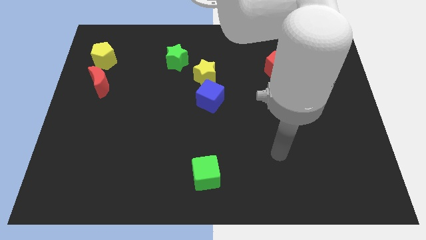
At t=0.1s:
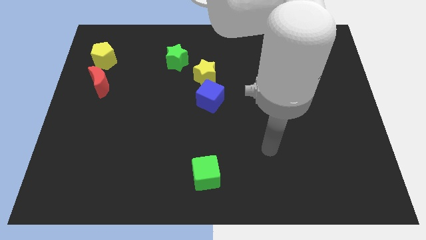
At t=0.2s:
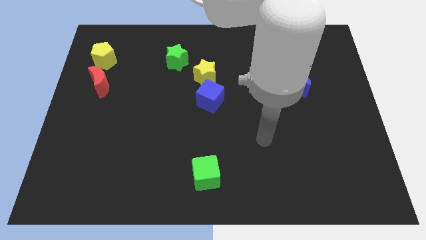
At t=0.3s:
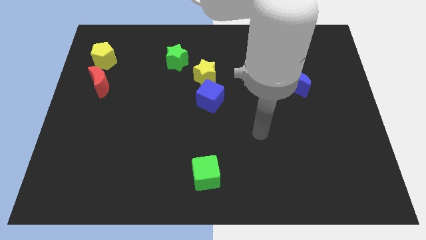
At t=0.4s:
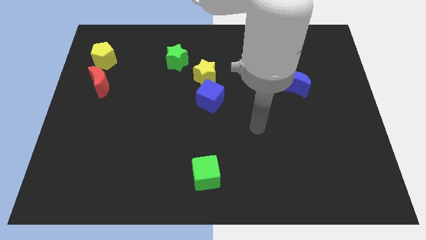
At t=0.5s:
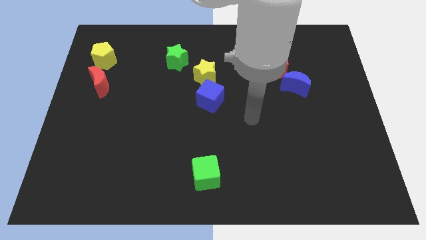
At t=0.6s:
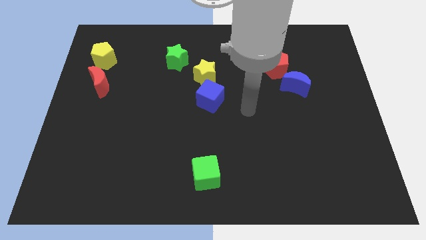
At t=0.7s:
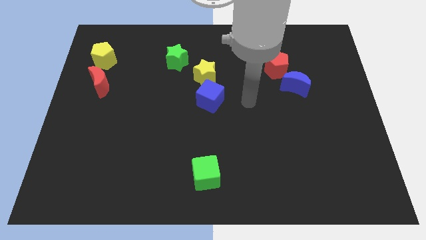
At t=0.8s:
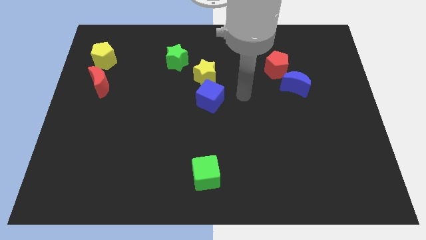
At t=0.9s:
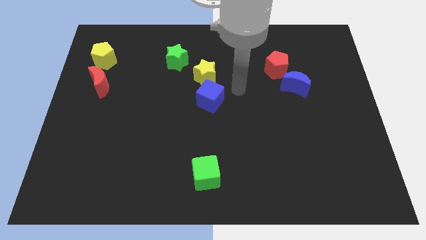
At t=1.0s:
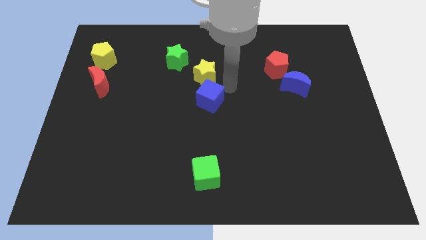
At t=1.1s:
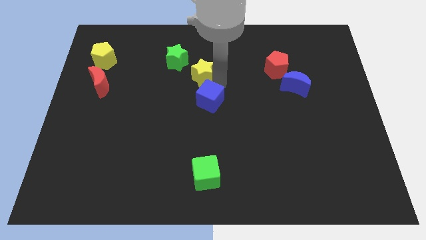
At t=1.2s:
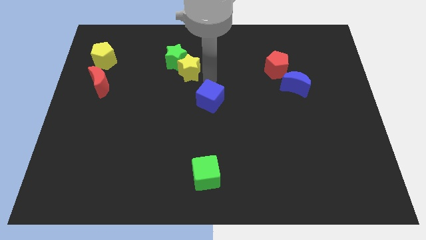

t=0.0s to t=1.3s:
move the blue cube away from the yellow star

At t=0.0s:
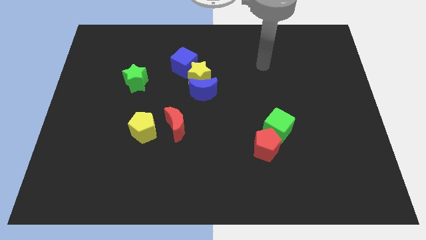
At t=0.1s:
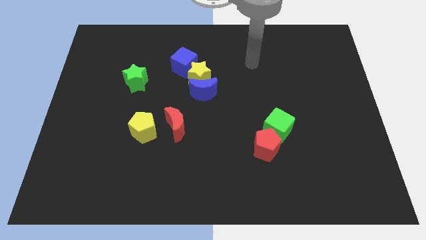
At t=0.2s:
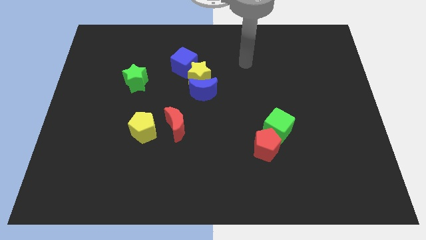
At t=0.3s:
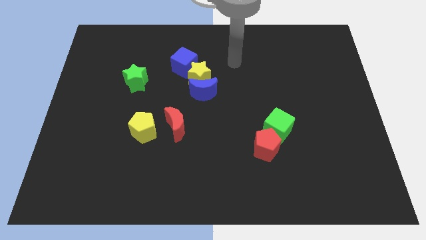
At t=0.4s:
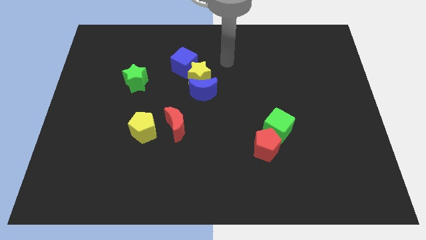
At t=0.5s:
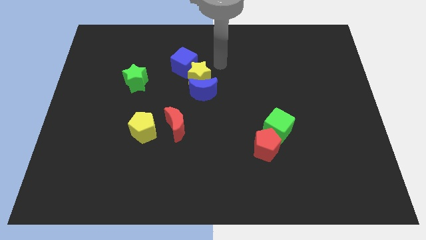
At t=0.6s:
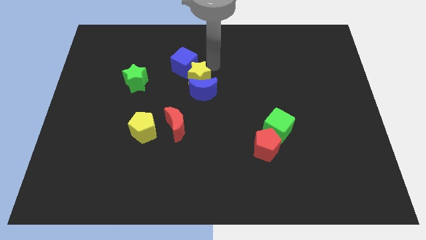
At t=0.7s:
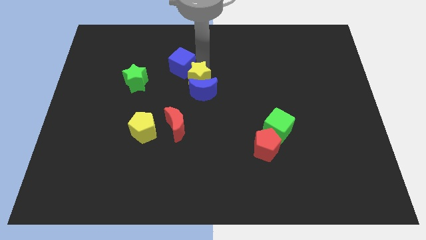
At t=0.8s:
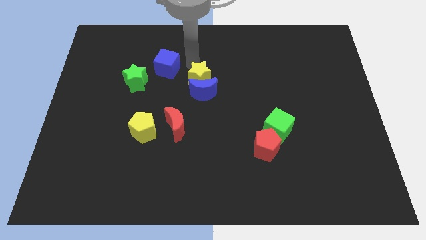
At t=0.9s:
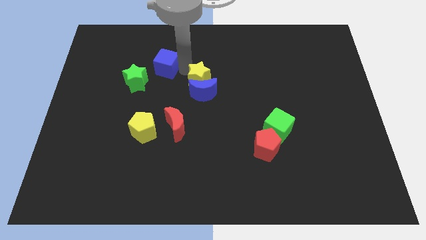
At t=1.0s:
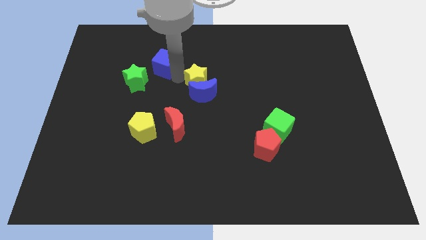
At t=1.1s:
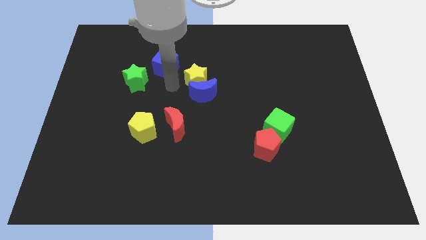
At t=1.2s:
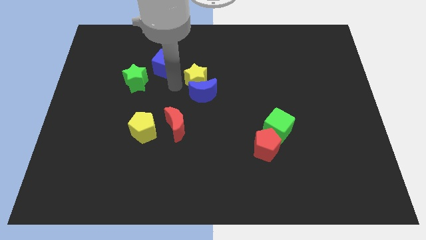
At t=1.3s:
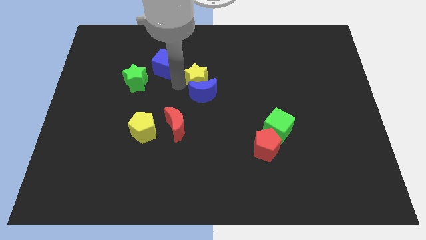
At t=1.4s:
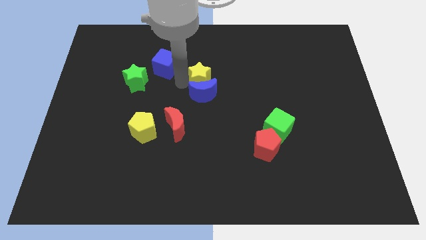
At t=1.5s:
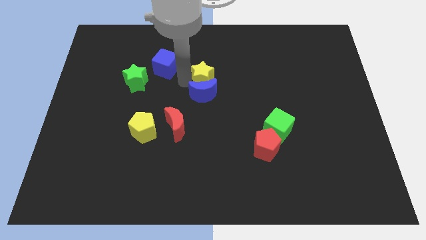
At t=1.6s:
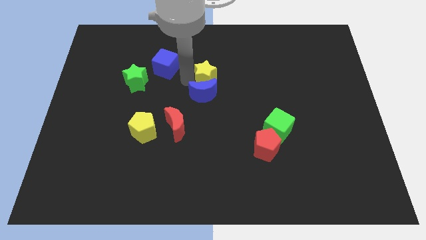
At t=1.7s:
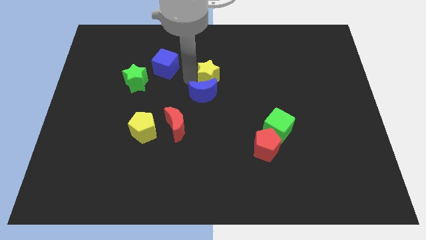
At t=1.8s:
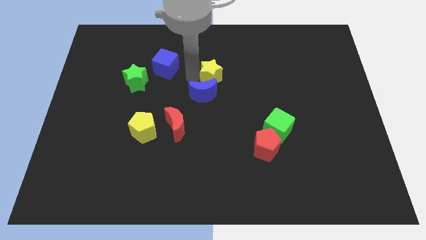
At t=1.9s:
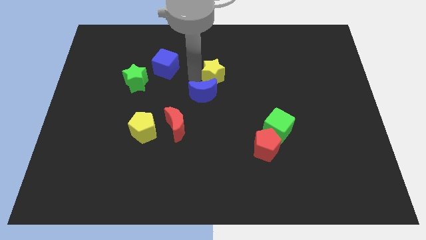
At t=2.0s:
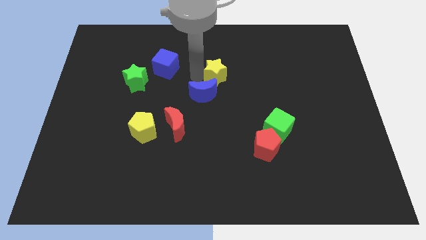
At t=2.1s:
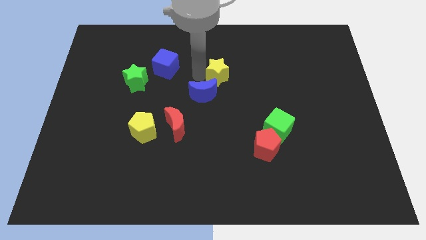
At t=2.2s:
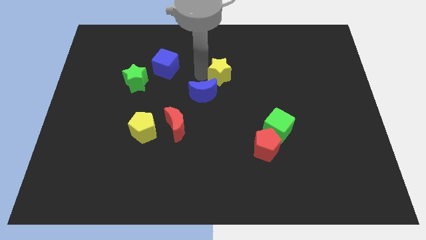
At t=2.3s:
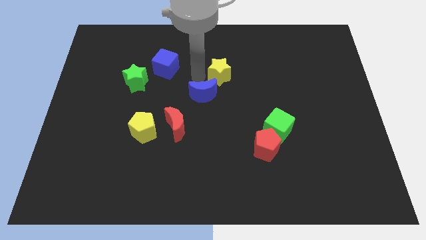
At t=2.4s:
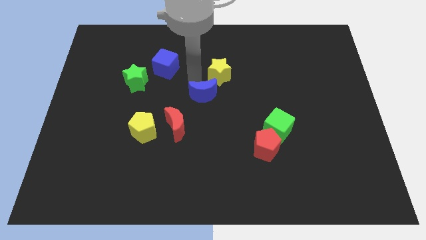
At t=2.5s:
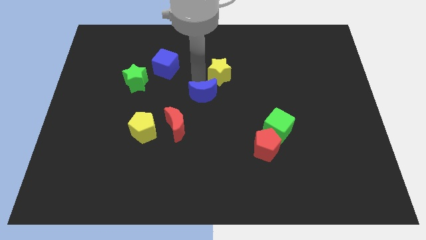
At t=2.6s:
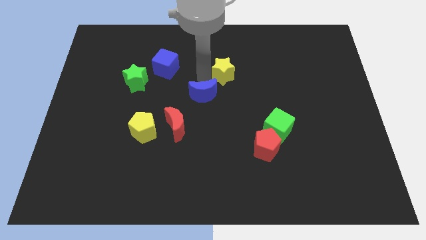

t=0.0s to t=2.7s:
pull the yellow star apart from the blue moon and blue cube

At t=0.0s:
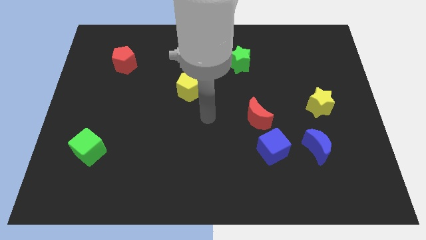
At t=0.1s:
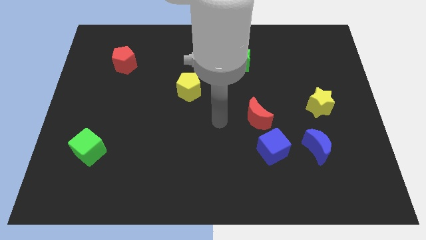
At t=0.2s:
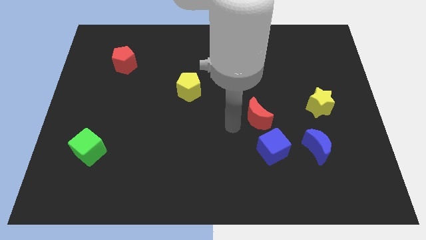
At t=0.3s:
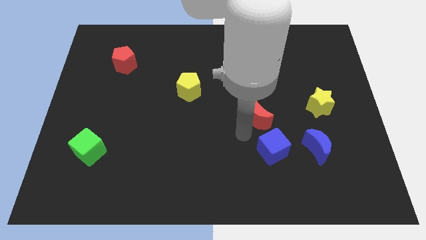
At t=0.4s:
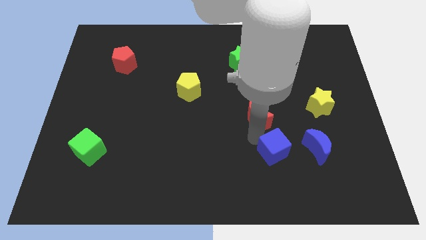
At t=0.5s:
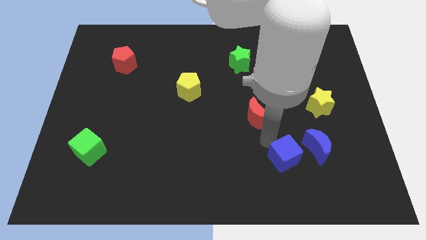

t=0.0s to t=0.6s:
separate the red moon from the blue cube

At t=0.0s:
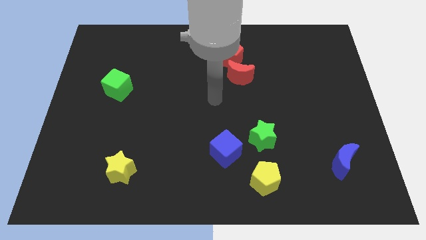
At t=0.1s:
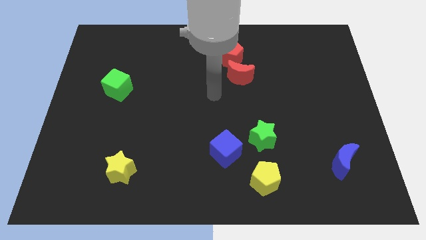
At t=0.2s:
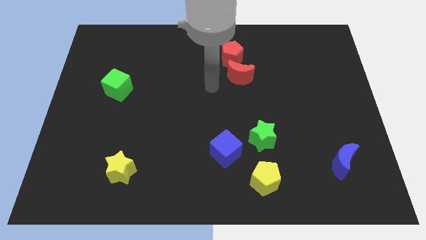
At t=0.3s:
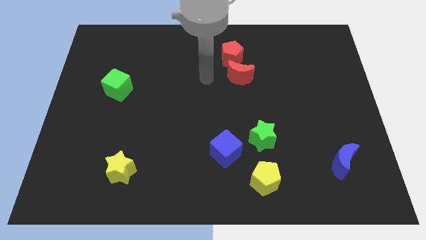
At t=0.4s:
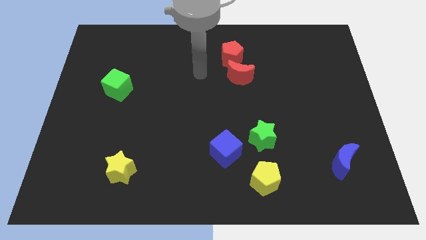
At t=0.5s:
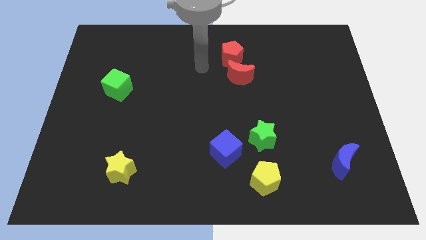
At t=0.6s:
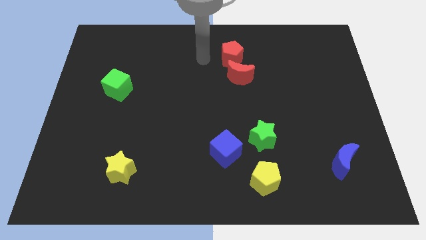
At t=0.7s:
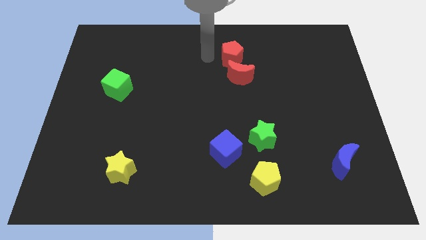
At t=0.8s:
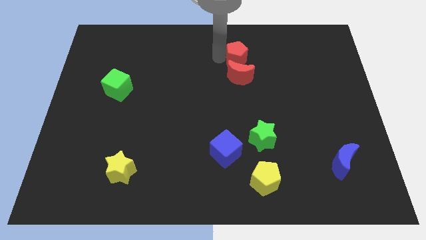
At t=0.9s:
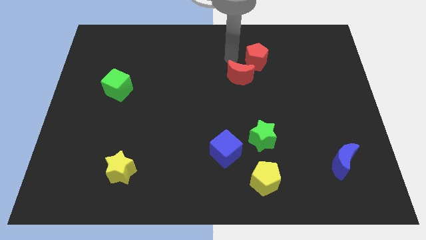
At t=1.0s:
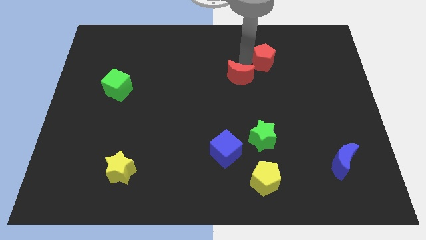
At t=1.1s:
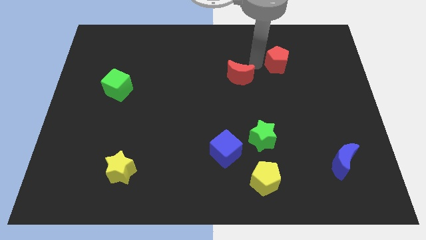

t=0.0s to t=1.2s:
separate the red moon from the red pentagon

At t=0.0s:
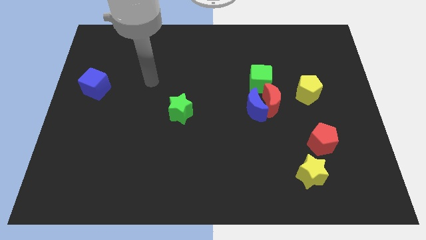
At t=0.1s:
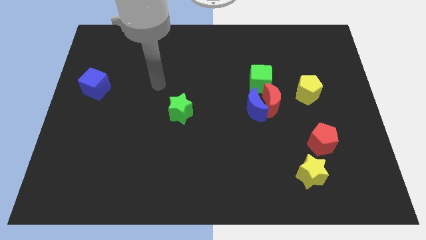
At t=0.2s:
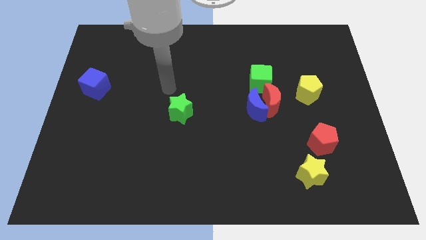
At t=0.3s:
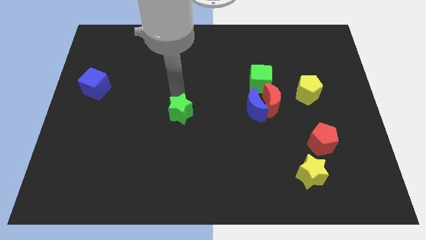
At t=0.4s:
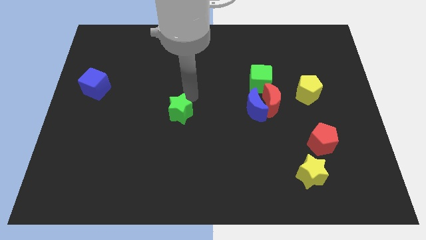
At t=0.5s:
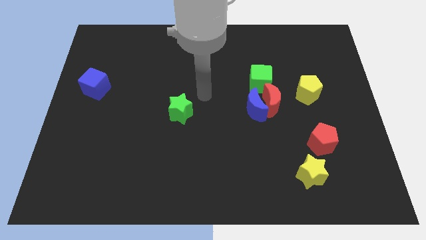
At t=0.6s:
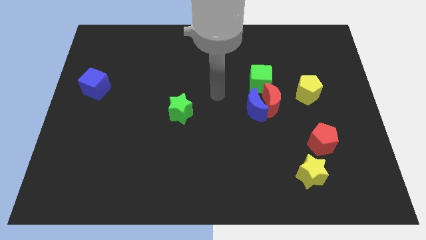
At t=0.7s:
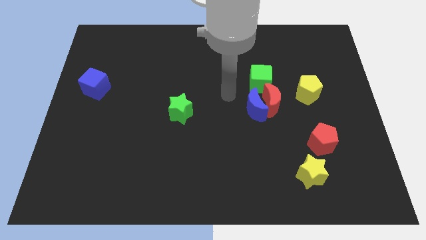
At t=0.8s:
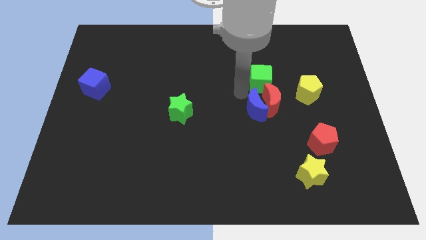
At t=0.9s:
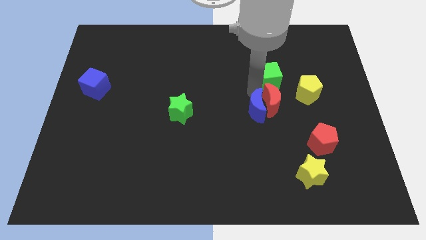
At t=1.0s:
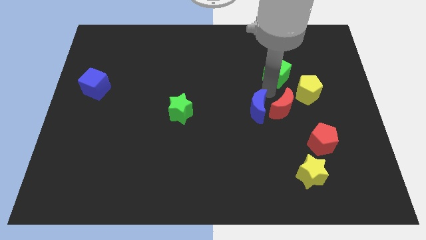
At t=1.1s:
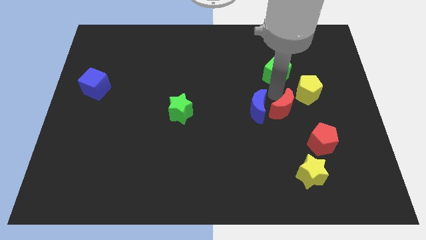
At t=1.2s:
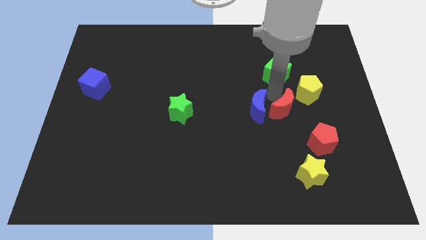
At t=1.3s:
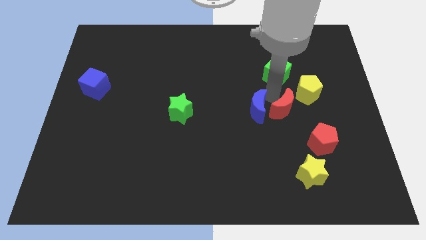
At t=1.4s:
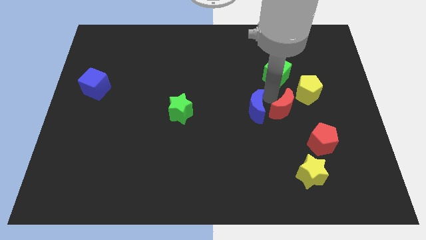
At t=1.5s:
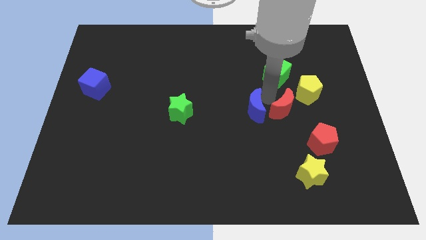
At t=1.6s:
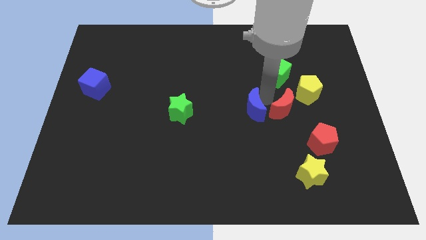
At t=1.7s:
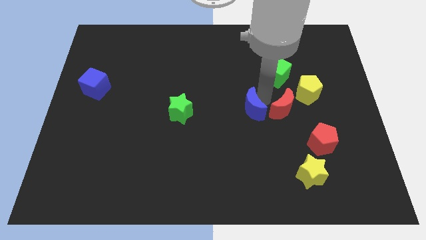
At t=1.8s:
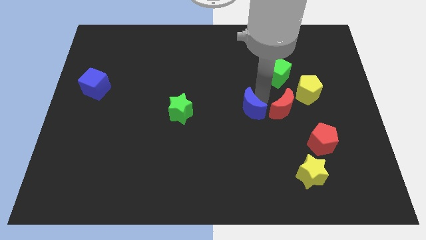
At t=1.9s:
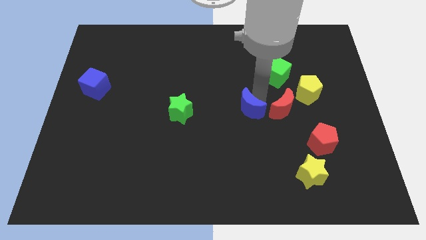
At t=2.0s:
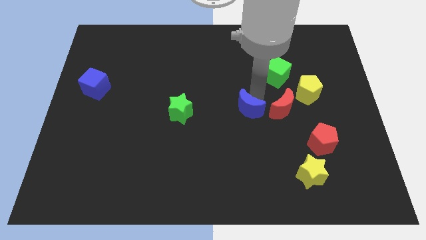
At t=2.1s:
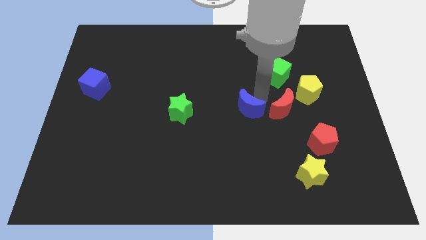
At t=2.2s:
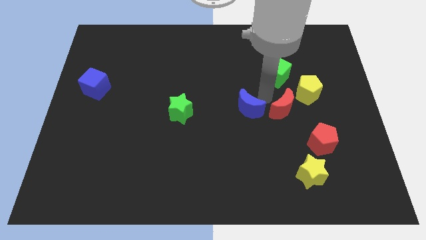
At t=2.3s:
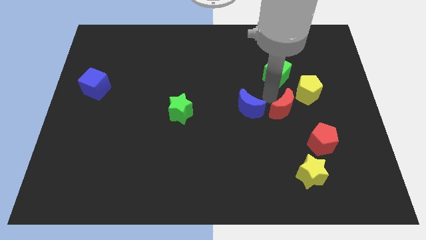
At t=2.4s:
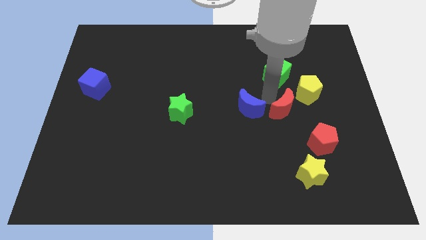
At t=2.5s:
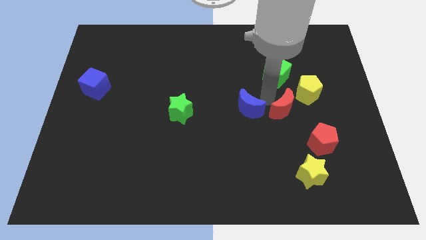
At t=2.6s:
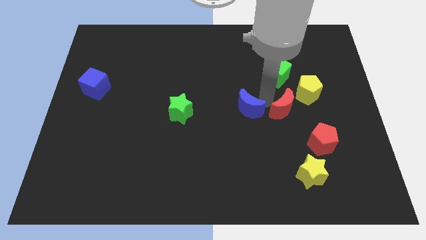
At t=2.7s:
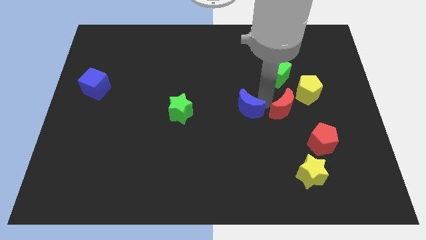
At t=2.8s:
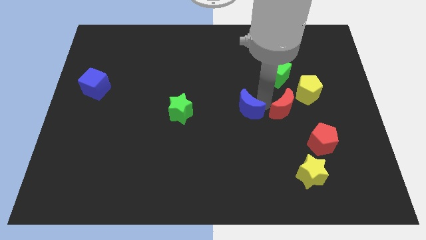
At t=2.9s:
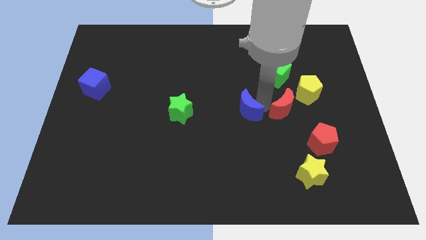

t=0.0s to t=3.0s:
pull the blue moon apart from the red moon and green cube

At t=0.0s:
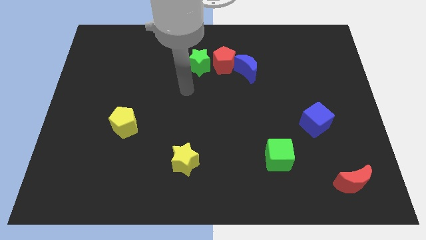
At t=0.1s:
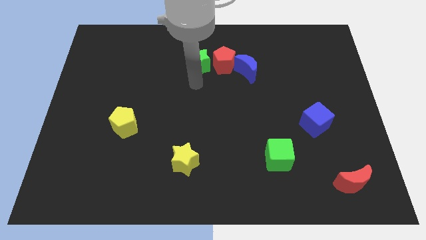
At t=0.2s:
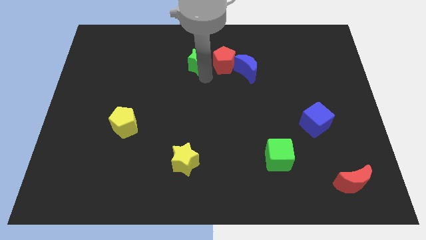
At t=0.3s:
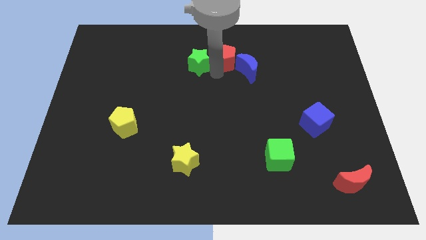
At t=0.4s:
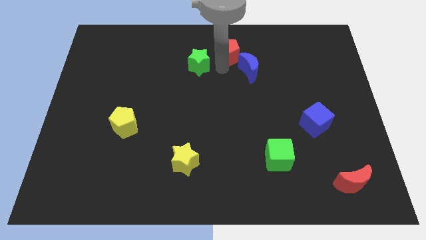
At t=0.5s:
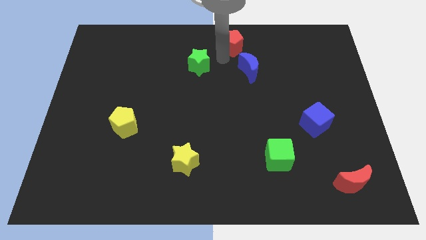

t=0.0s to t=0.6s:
pull the green star apart from the red pentagon
